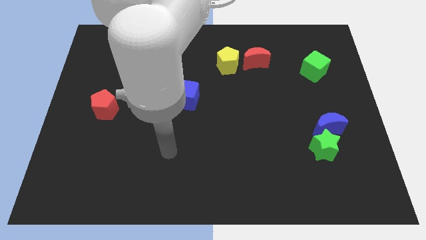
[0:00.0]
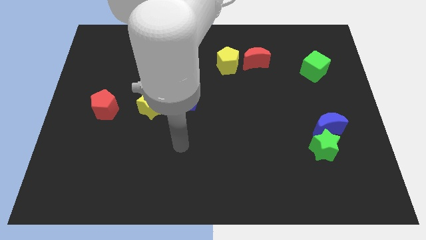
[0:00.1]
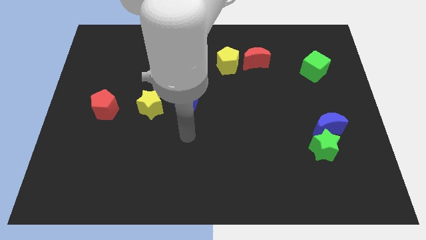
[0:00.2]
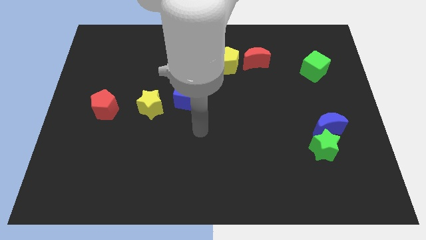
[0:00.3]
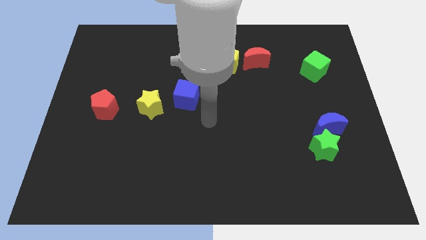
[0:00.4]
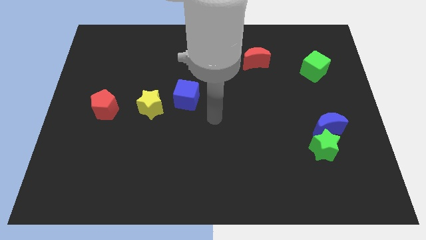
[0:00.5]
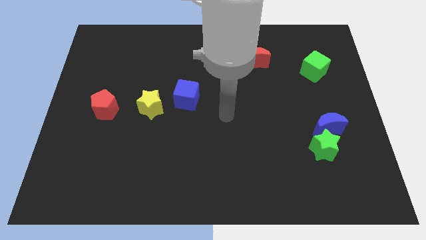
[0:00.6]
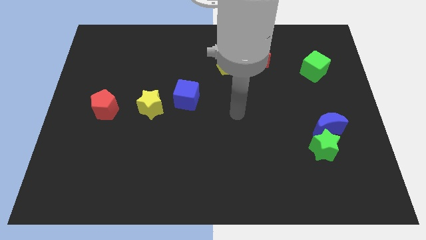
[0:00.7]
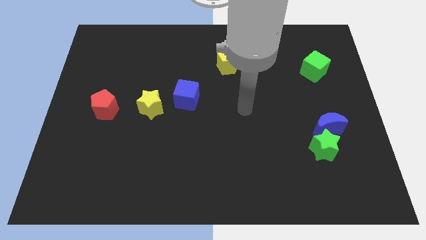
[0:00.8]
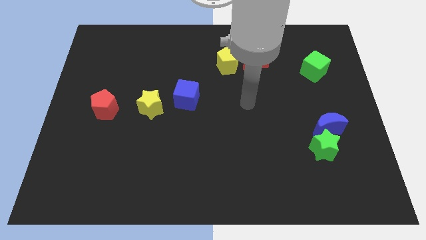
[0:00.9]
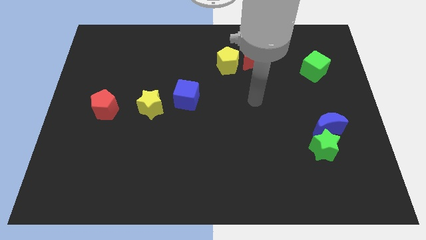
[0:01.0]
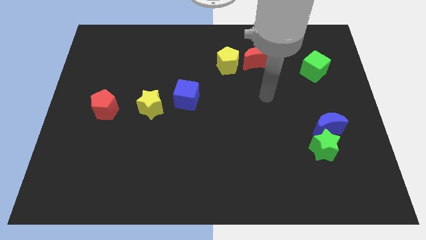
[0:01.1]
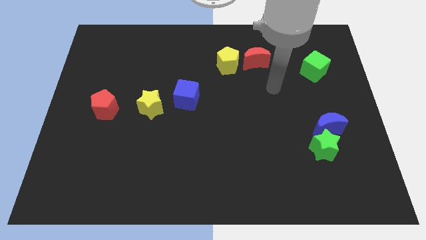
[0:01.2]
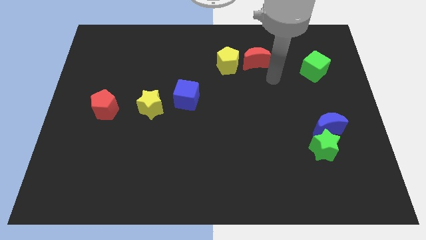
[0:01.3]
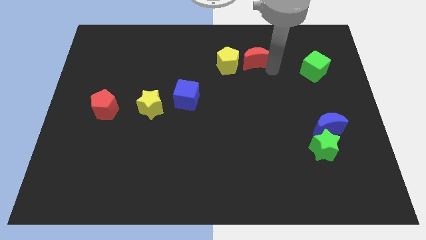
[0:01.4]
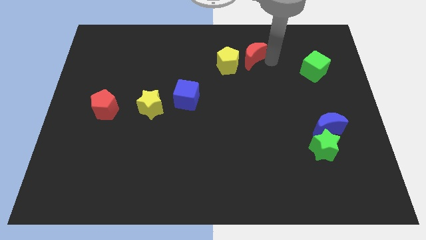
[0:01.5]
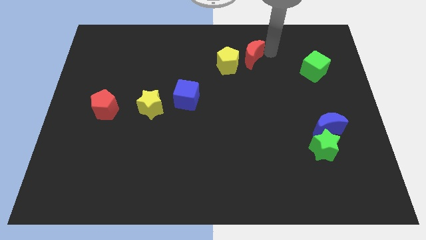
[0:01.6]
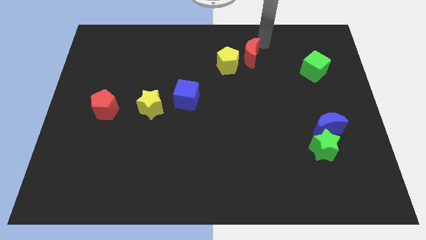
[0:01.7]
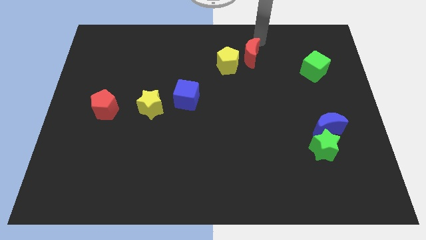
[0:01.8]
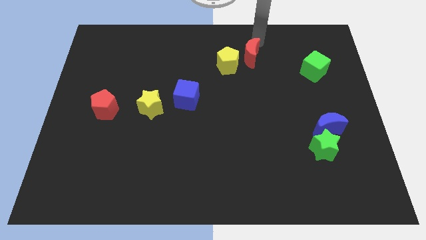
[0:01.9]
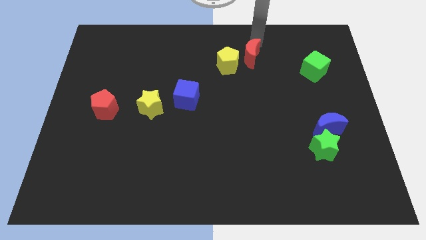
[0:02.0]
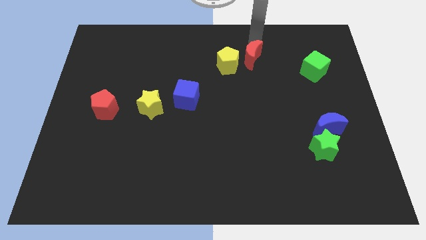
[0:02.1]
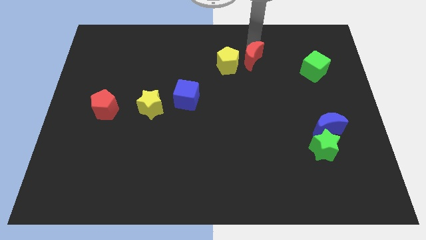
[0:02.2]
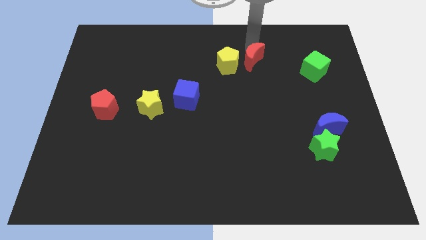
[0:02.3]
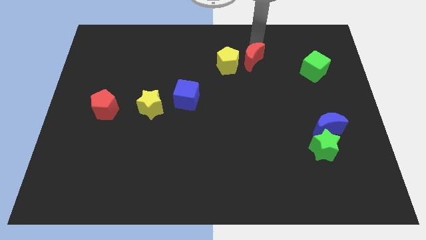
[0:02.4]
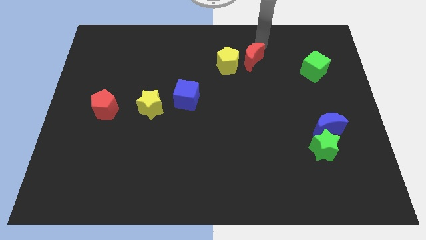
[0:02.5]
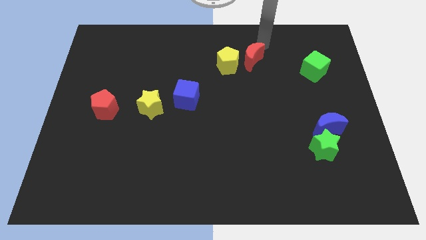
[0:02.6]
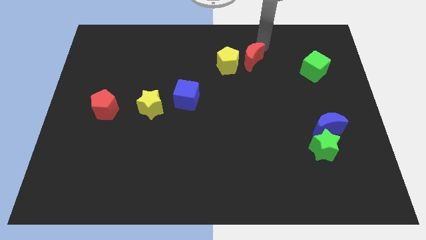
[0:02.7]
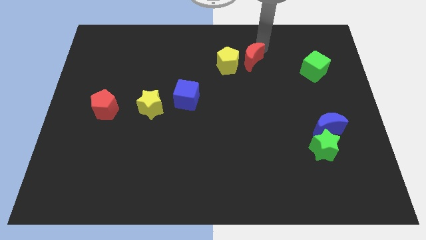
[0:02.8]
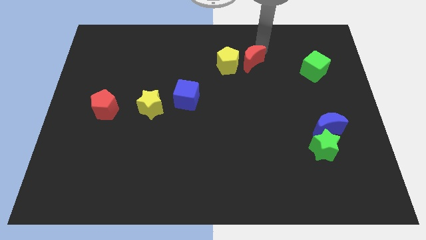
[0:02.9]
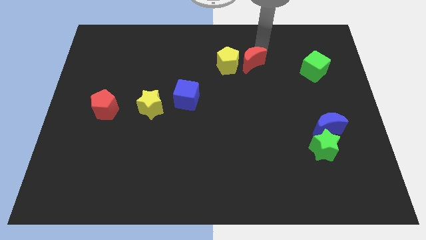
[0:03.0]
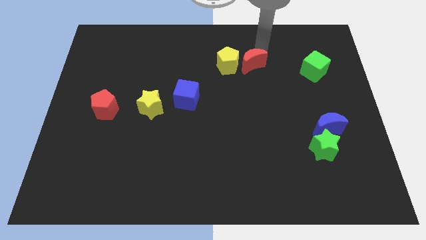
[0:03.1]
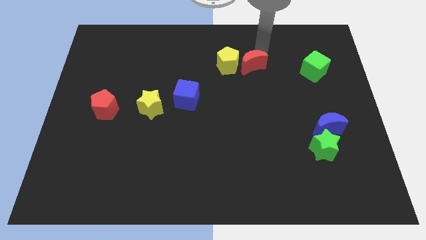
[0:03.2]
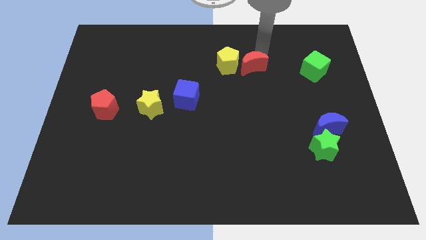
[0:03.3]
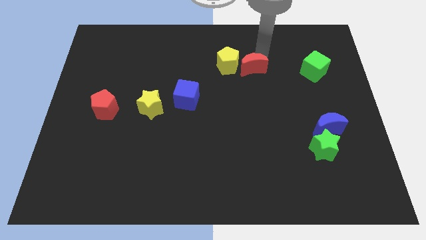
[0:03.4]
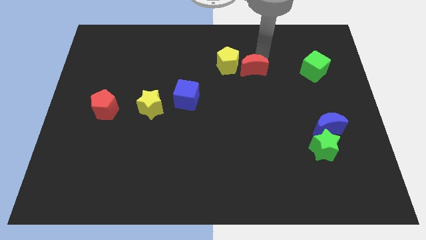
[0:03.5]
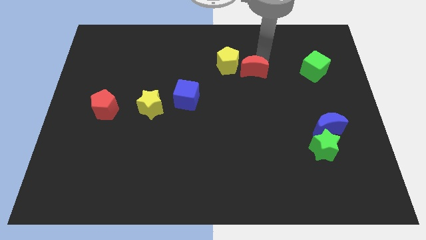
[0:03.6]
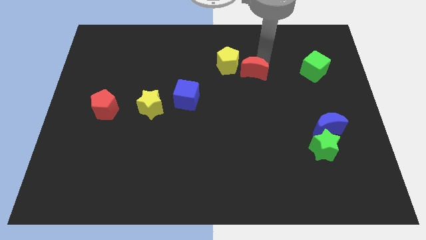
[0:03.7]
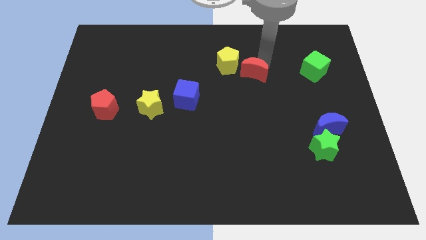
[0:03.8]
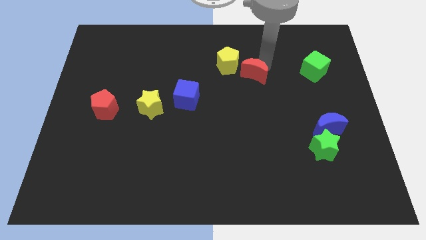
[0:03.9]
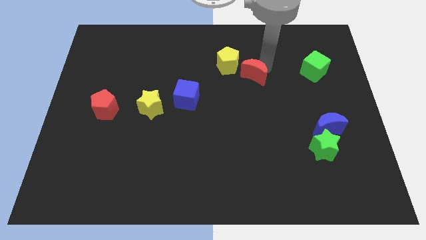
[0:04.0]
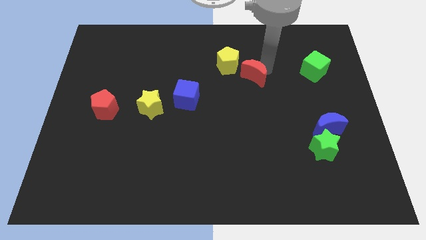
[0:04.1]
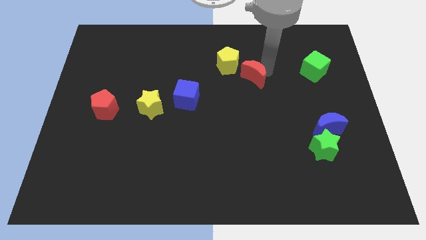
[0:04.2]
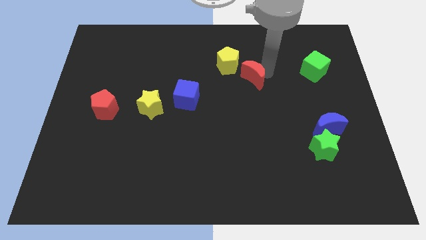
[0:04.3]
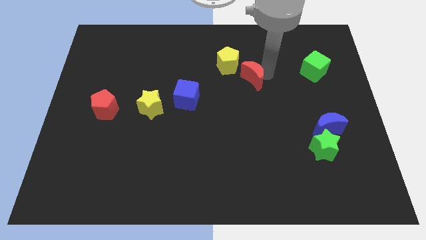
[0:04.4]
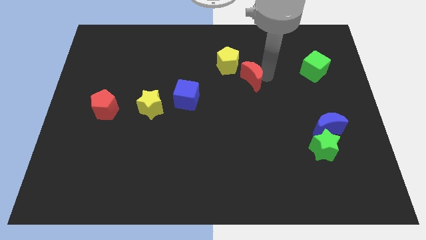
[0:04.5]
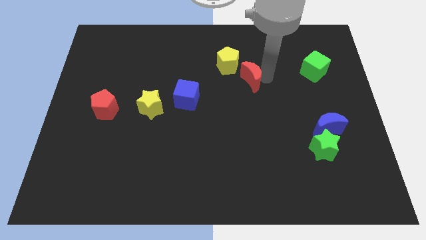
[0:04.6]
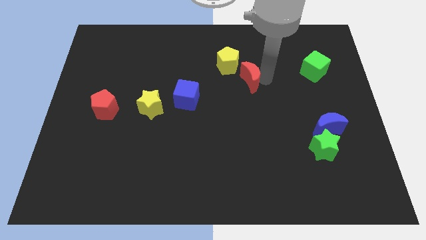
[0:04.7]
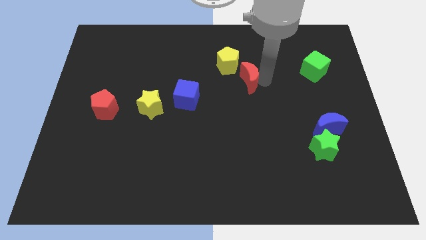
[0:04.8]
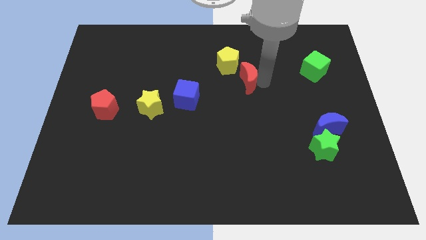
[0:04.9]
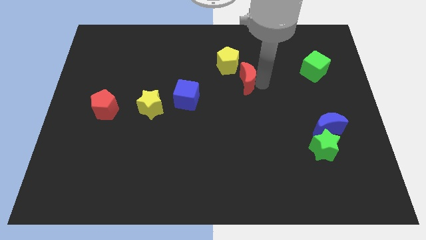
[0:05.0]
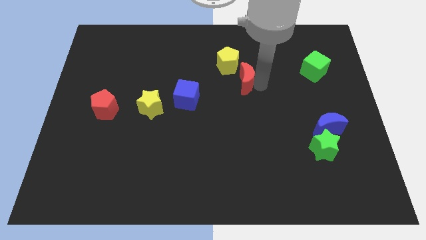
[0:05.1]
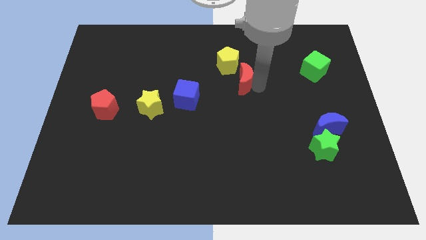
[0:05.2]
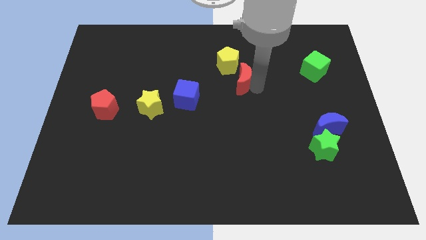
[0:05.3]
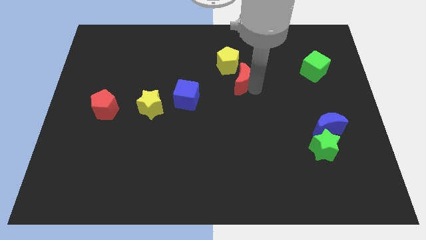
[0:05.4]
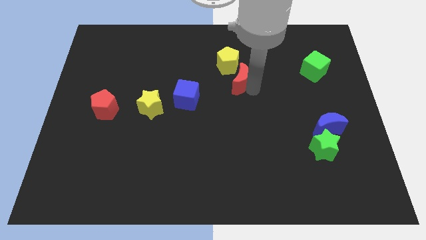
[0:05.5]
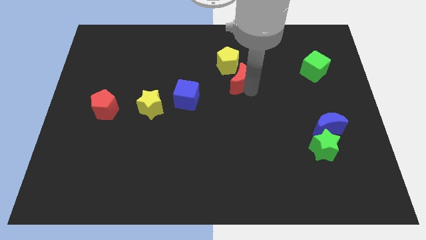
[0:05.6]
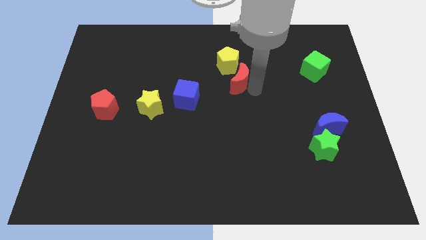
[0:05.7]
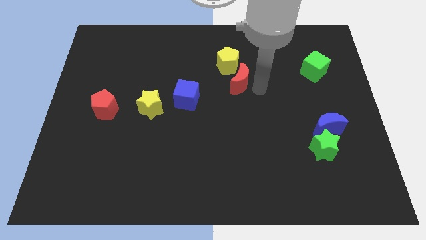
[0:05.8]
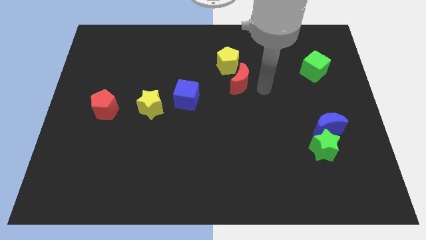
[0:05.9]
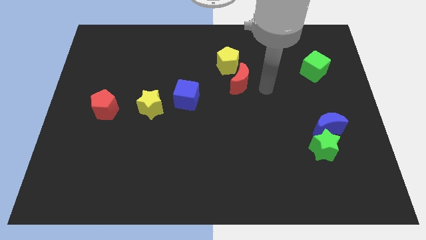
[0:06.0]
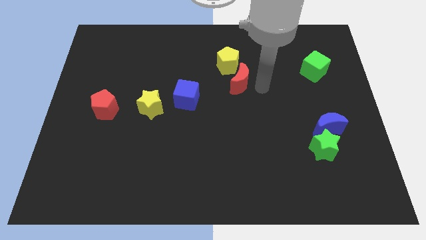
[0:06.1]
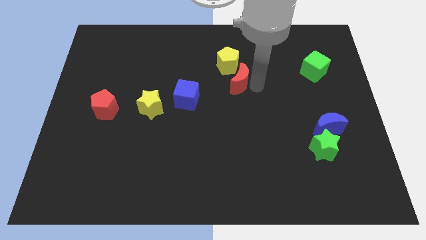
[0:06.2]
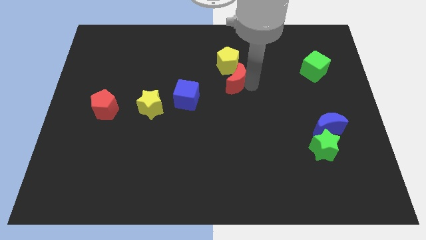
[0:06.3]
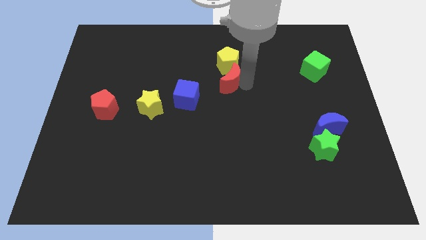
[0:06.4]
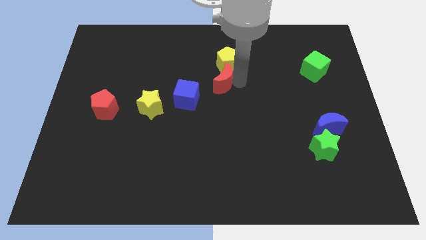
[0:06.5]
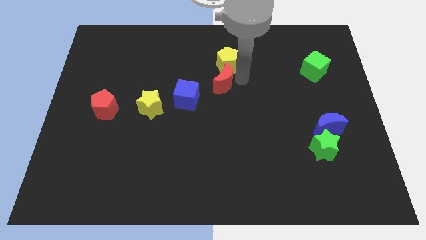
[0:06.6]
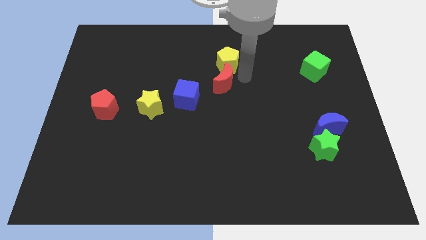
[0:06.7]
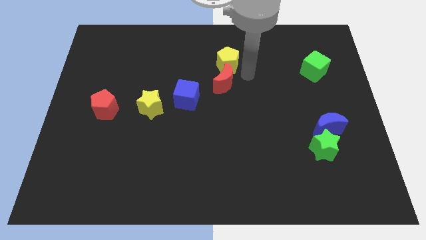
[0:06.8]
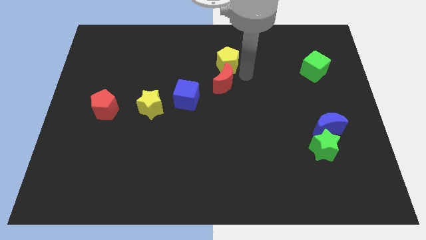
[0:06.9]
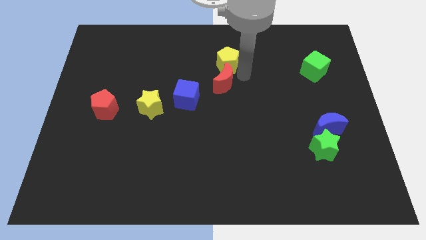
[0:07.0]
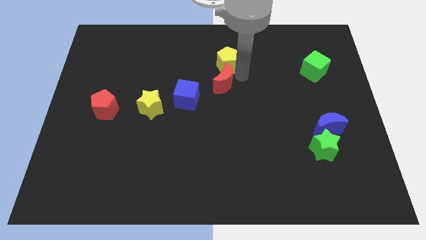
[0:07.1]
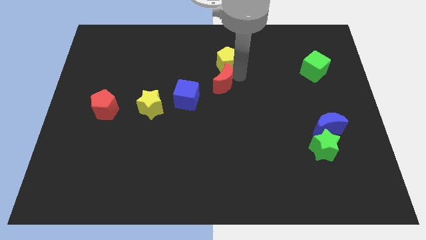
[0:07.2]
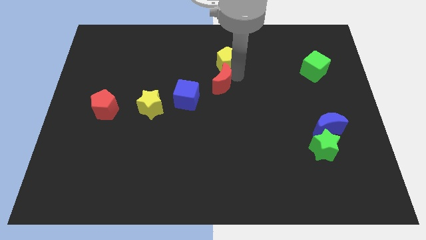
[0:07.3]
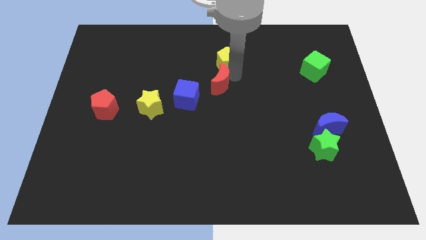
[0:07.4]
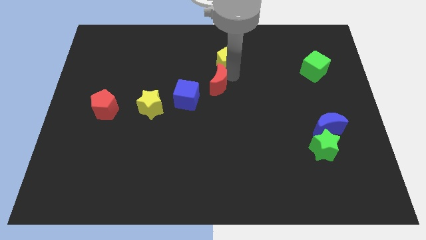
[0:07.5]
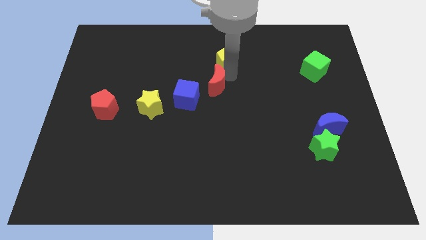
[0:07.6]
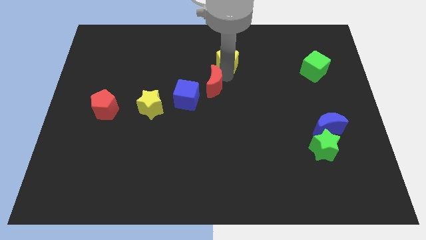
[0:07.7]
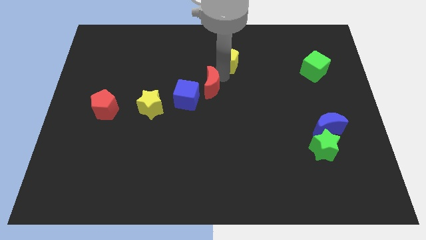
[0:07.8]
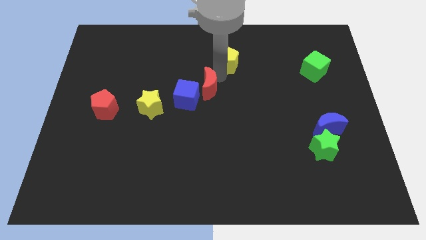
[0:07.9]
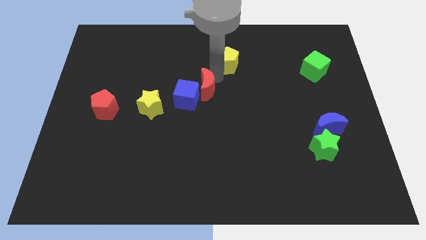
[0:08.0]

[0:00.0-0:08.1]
push the red moon next to the blue cube

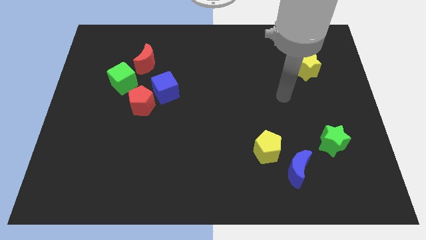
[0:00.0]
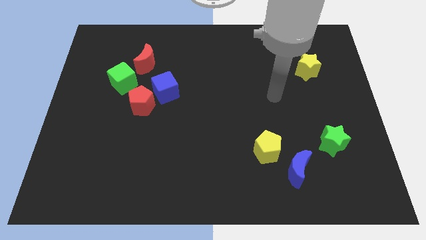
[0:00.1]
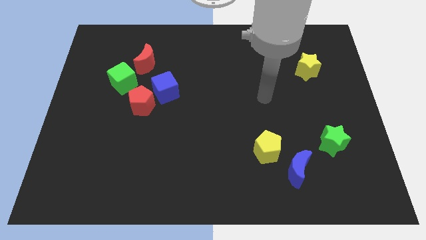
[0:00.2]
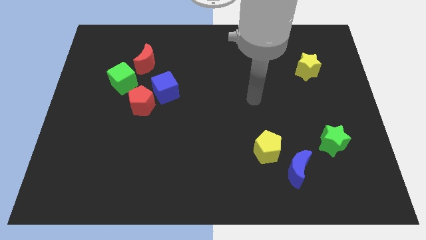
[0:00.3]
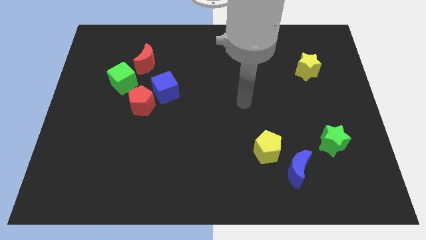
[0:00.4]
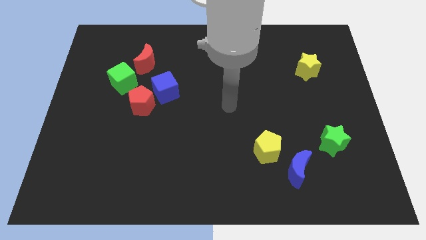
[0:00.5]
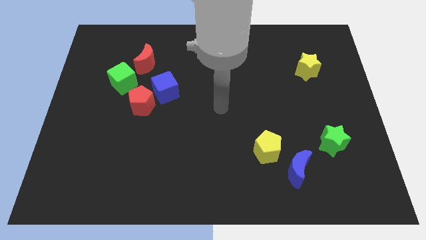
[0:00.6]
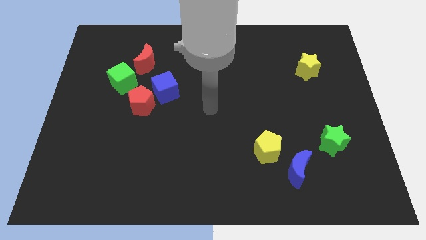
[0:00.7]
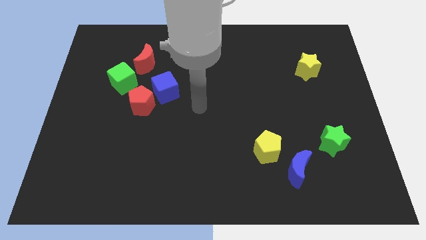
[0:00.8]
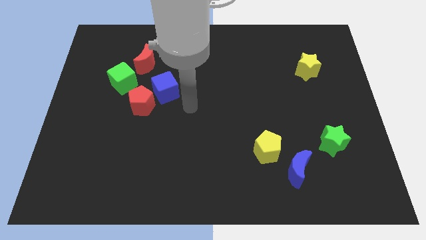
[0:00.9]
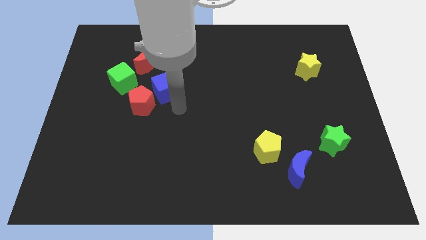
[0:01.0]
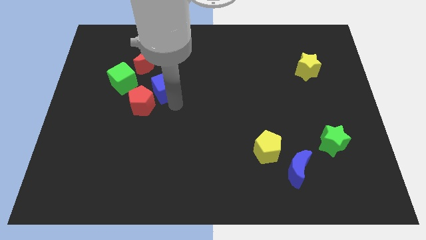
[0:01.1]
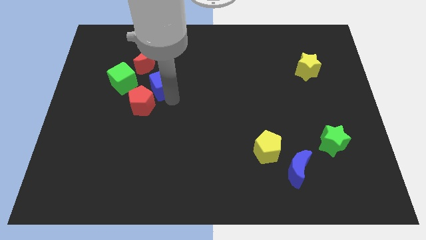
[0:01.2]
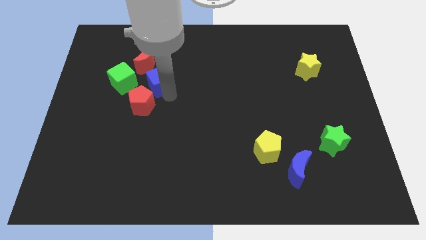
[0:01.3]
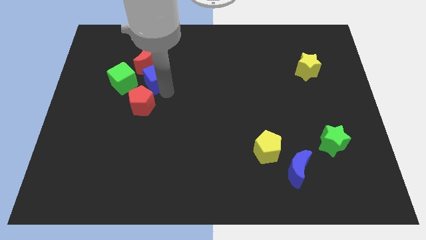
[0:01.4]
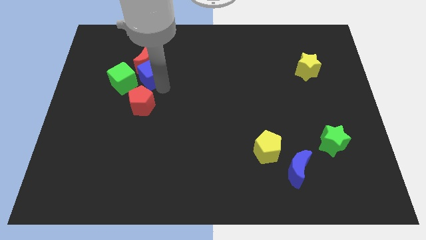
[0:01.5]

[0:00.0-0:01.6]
slide the blue cube next to the red moon
